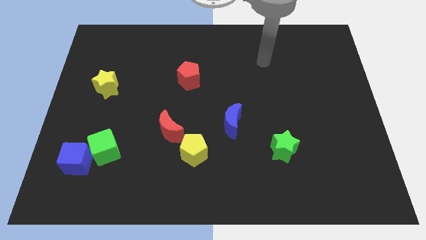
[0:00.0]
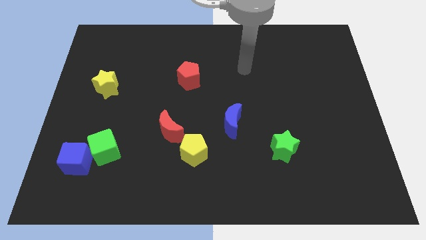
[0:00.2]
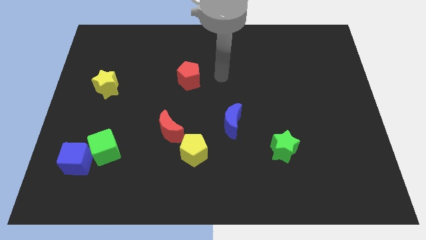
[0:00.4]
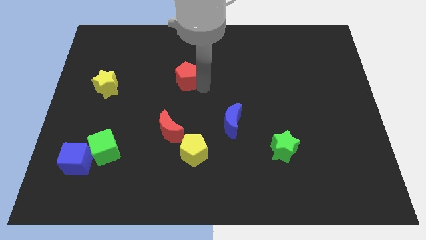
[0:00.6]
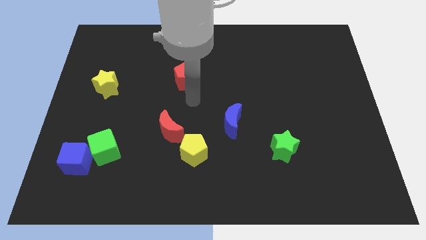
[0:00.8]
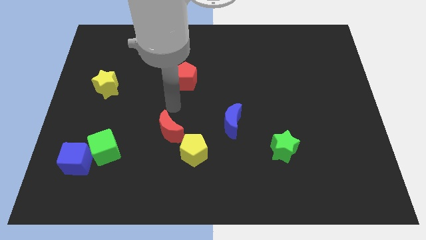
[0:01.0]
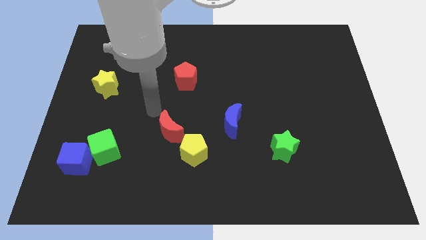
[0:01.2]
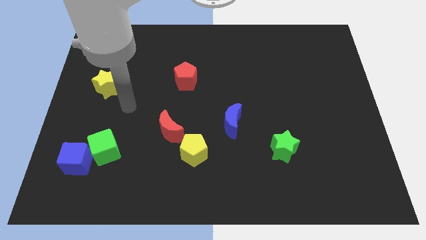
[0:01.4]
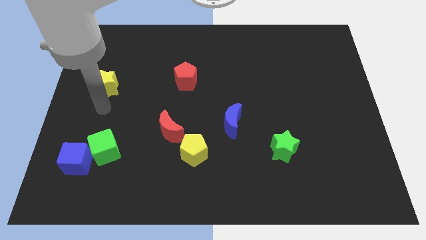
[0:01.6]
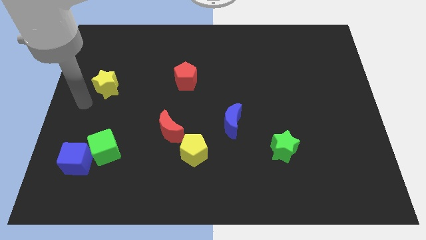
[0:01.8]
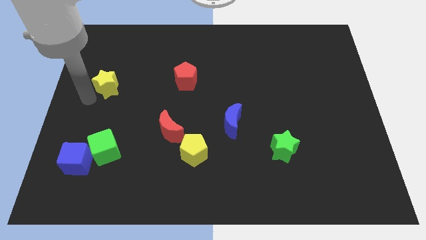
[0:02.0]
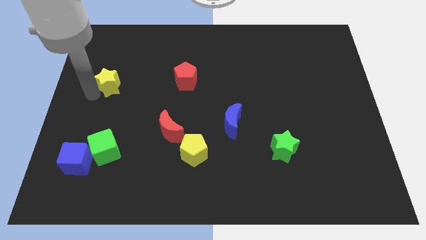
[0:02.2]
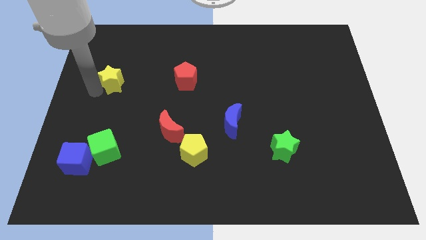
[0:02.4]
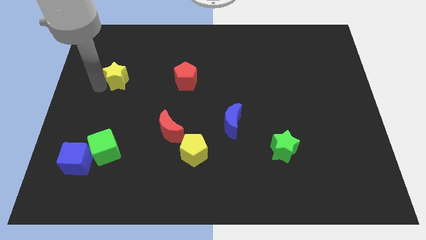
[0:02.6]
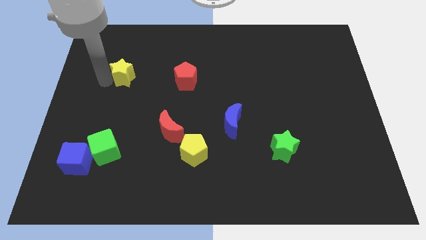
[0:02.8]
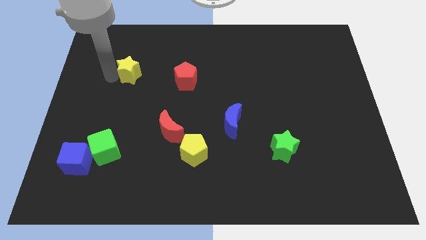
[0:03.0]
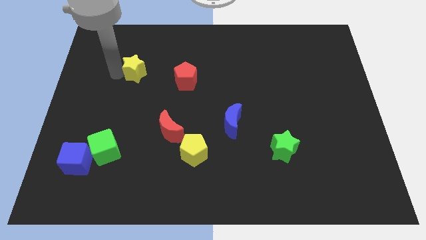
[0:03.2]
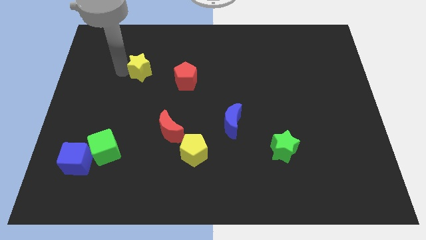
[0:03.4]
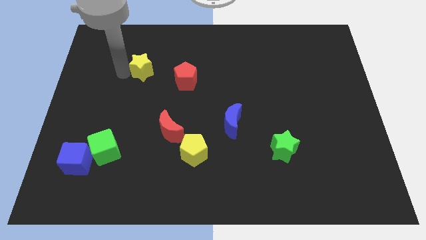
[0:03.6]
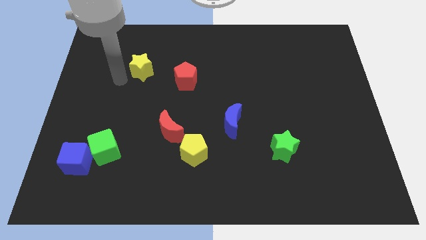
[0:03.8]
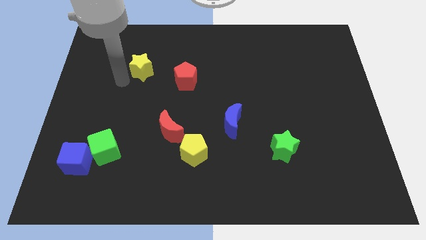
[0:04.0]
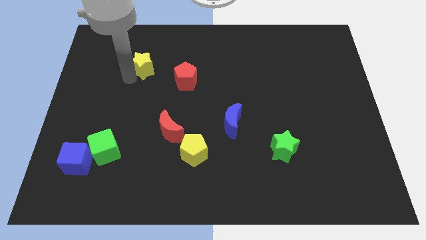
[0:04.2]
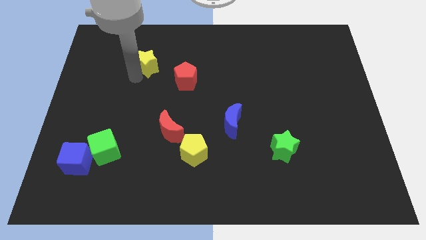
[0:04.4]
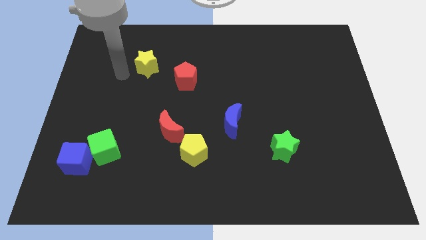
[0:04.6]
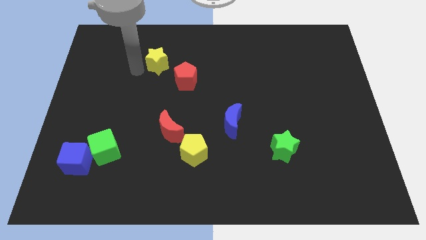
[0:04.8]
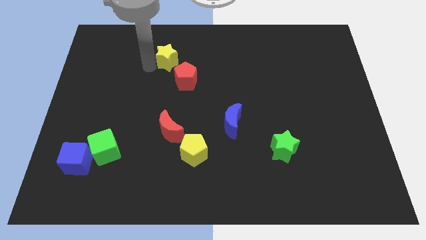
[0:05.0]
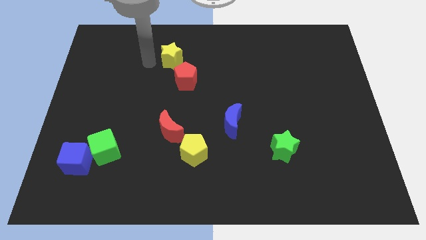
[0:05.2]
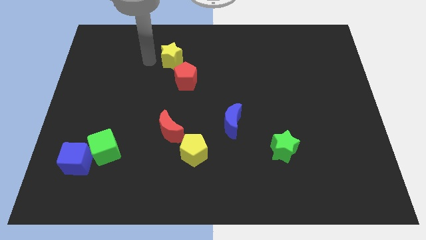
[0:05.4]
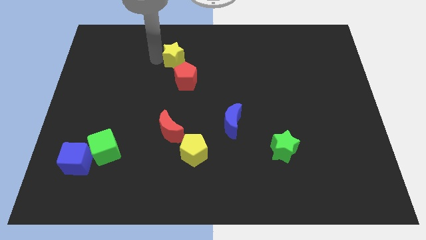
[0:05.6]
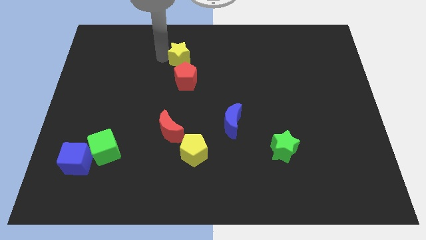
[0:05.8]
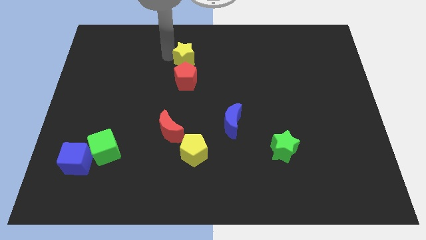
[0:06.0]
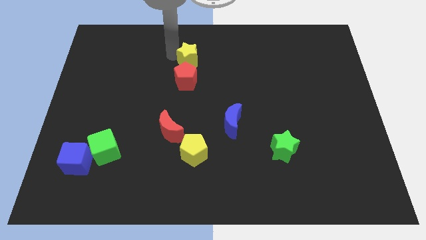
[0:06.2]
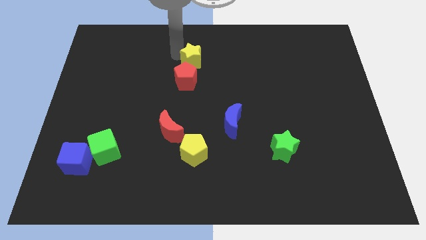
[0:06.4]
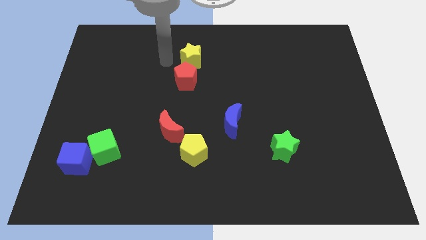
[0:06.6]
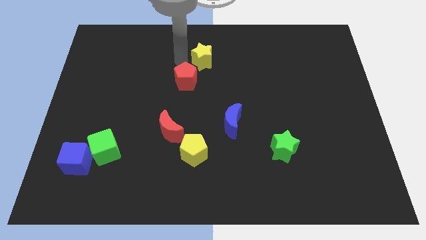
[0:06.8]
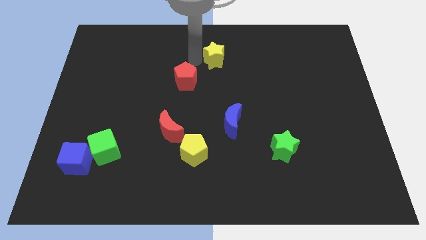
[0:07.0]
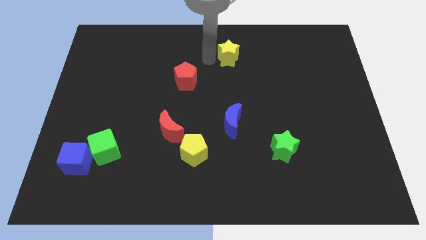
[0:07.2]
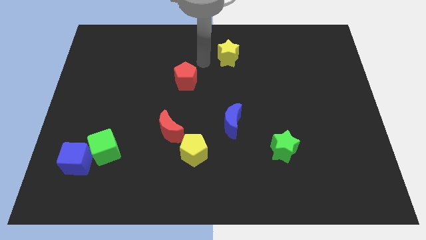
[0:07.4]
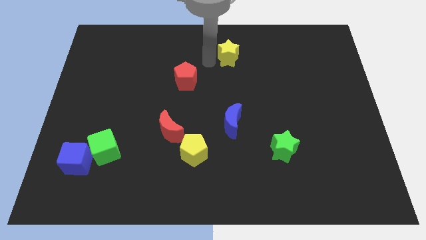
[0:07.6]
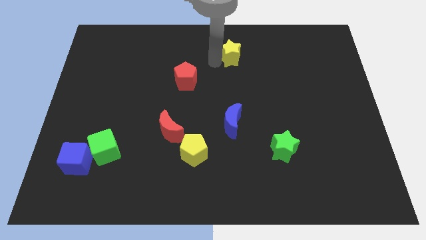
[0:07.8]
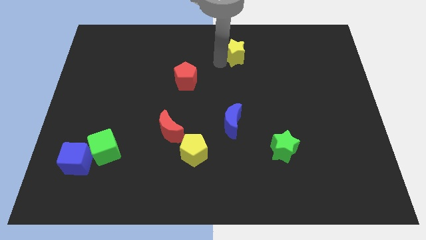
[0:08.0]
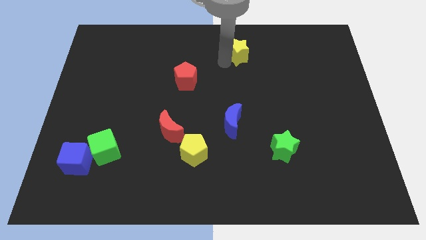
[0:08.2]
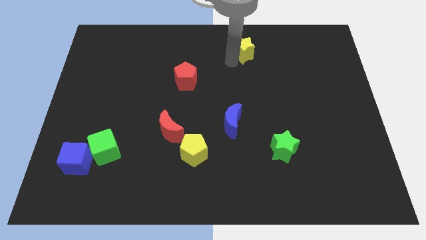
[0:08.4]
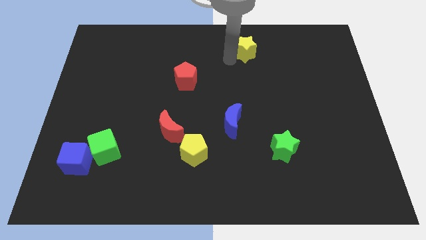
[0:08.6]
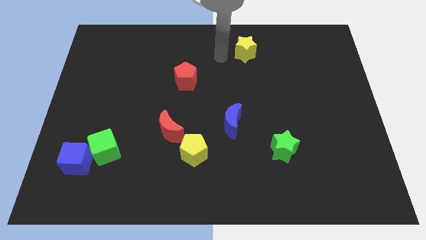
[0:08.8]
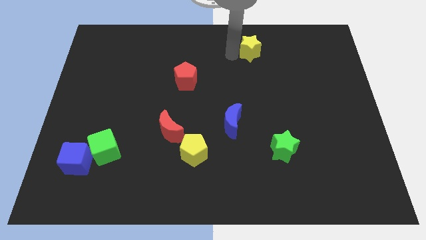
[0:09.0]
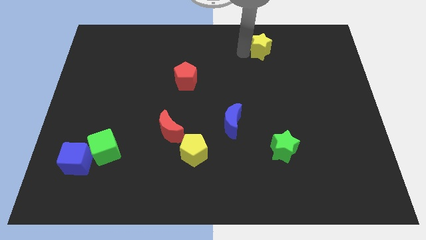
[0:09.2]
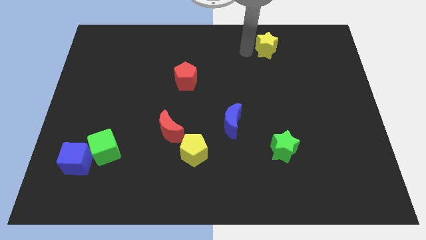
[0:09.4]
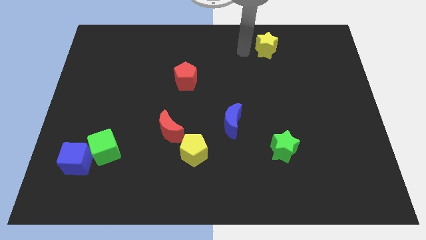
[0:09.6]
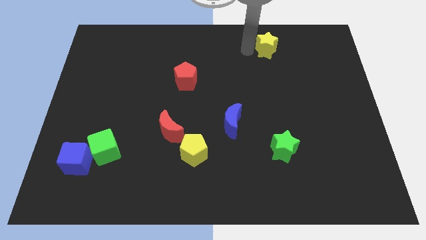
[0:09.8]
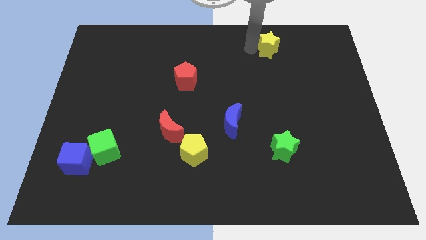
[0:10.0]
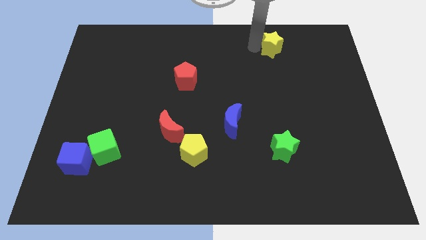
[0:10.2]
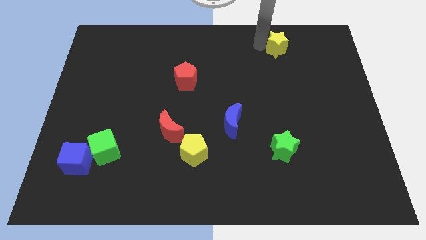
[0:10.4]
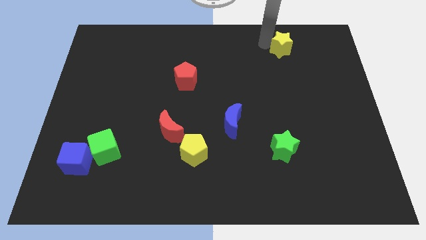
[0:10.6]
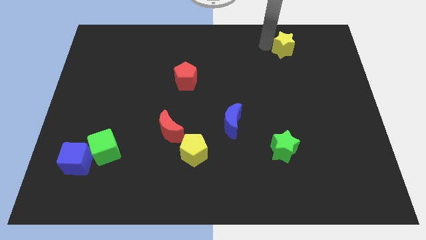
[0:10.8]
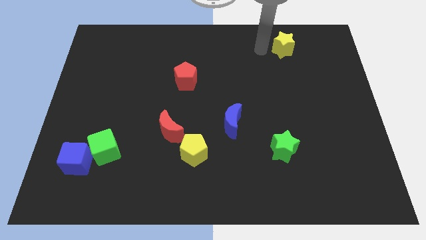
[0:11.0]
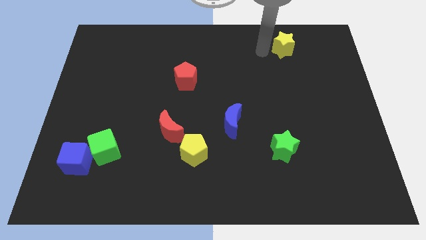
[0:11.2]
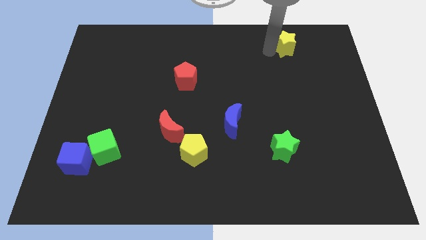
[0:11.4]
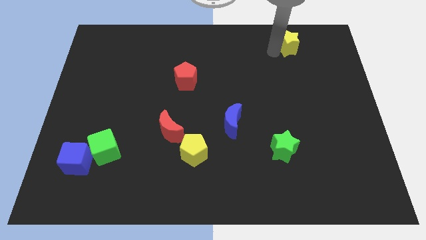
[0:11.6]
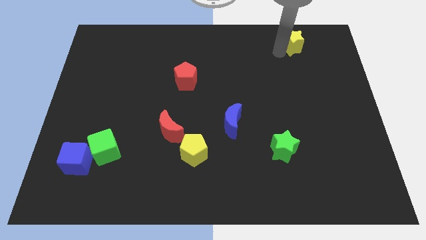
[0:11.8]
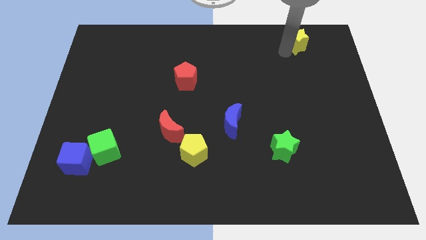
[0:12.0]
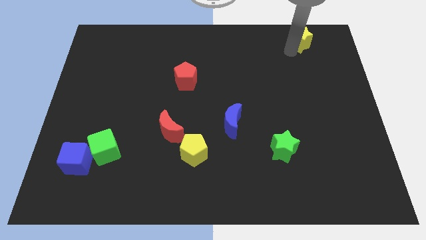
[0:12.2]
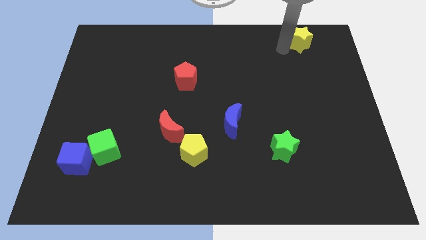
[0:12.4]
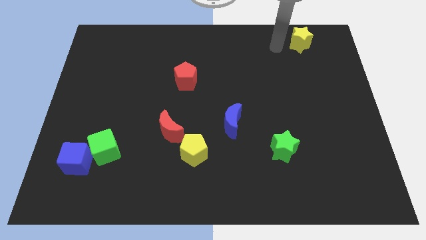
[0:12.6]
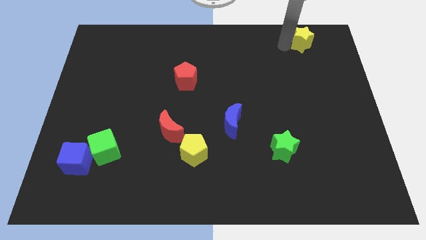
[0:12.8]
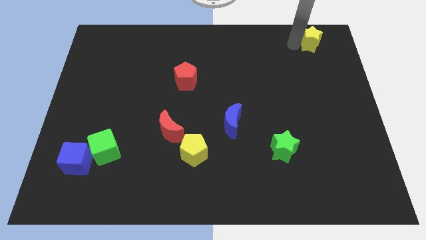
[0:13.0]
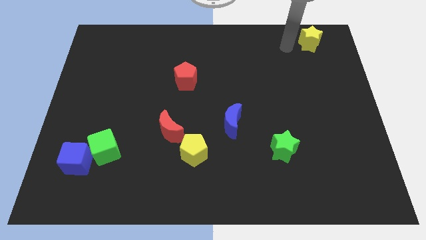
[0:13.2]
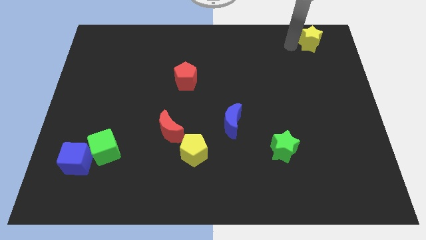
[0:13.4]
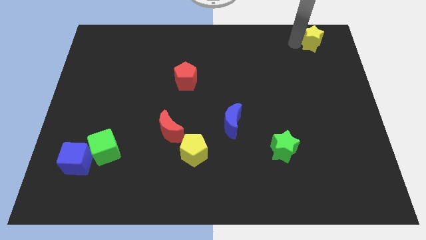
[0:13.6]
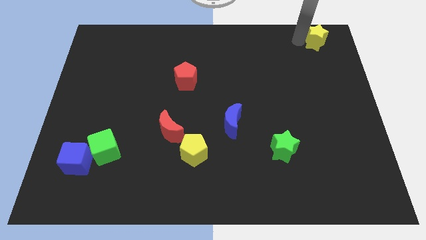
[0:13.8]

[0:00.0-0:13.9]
push the yellow star to the top right

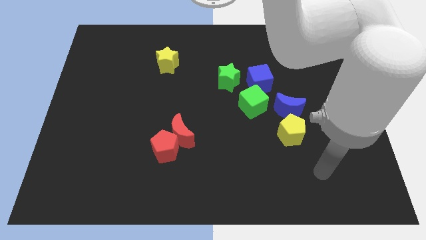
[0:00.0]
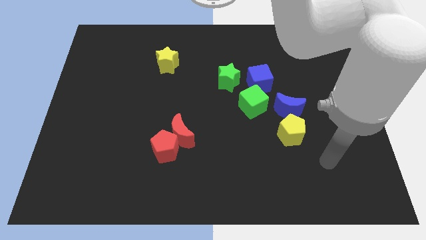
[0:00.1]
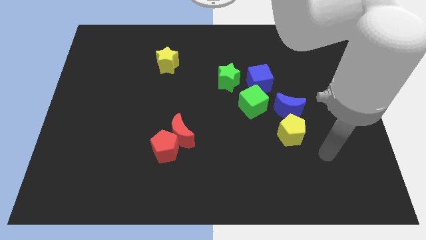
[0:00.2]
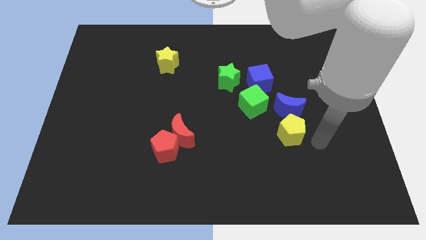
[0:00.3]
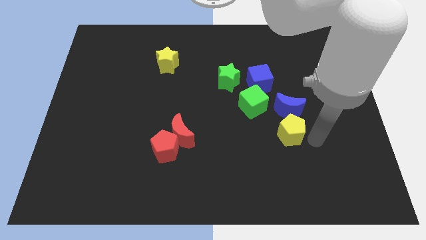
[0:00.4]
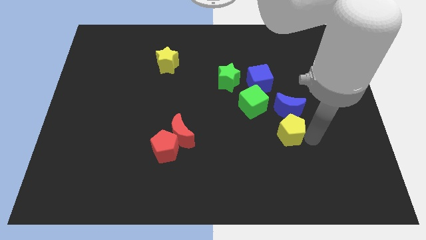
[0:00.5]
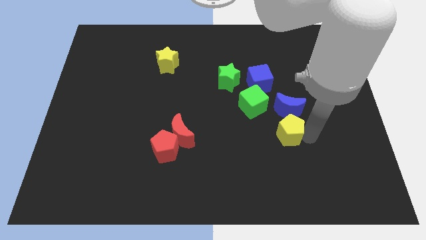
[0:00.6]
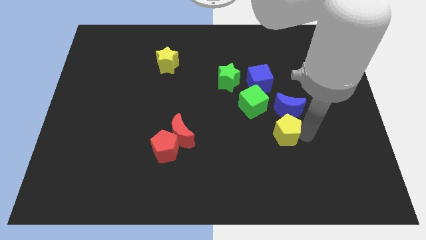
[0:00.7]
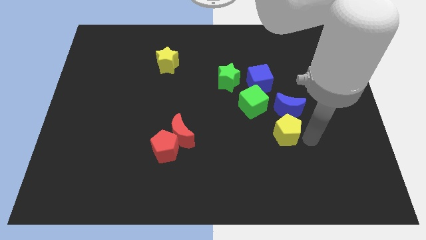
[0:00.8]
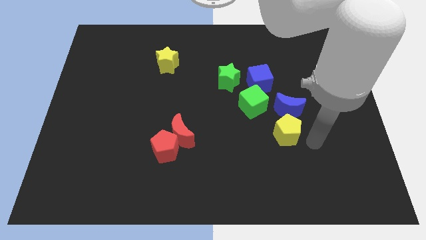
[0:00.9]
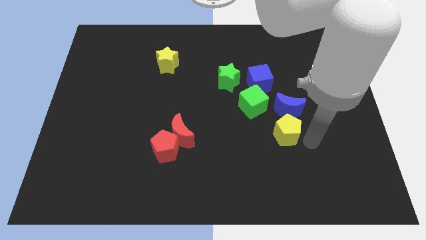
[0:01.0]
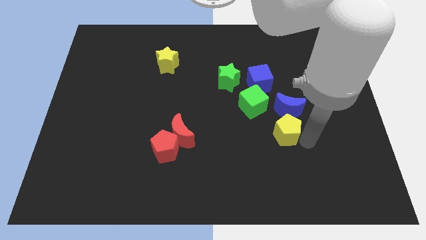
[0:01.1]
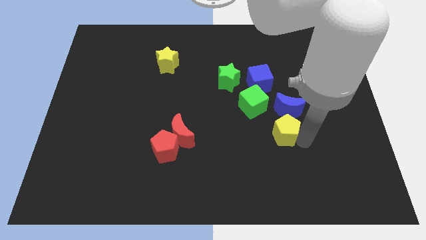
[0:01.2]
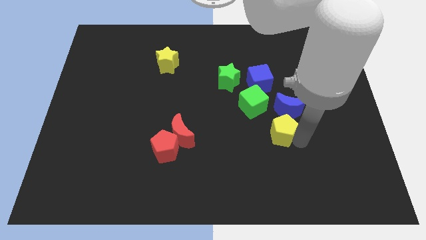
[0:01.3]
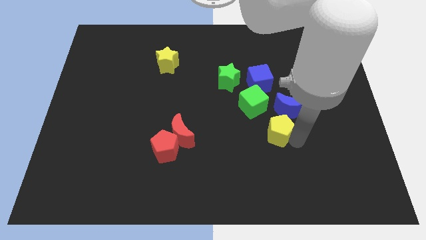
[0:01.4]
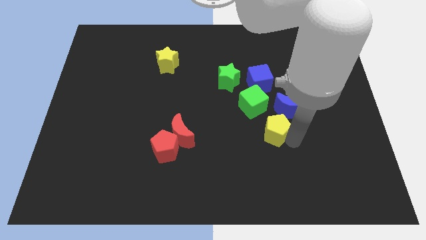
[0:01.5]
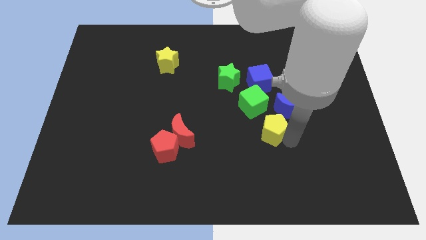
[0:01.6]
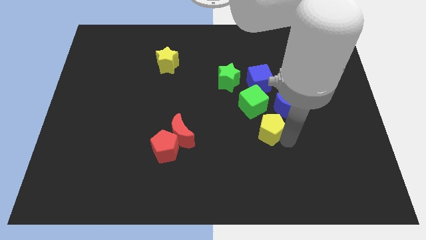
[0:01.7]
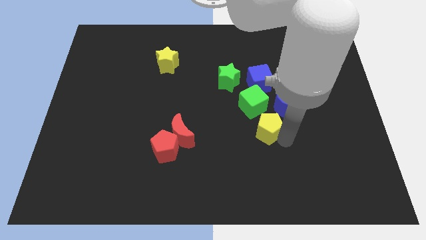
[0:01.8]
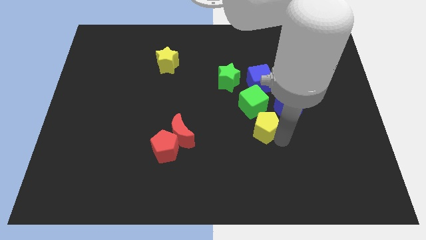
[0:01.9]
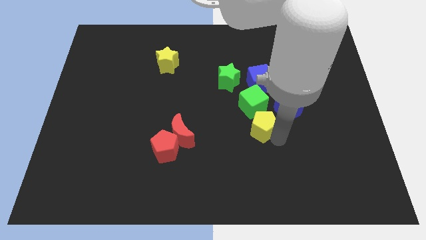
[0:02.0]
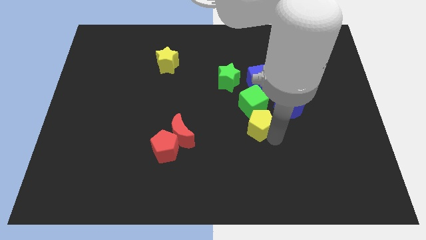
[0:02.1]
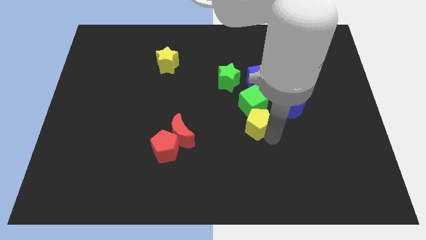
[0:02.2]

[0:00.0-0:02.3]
move the yellow pentagon to the middle
